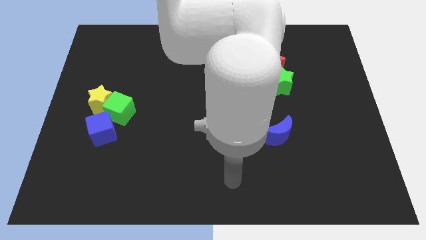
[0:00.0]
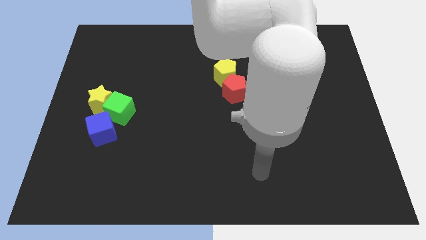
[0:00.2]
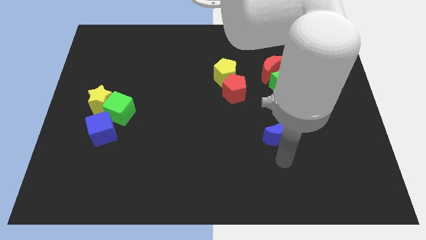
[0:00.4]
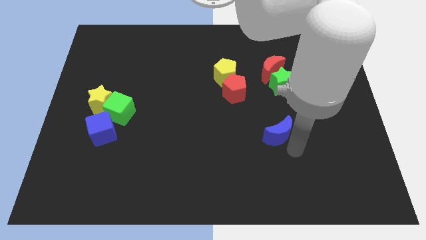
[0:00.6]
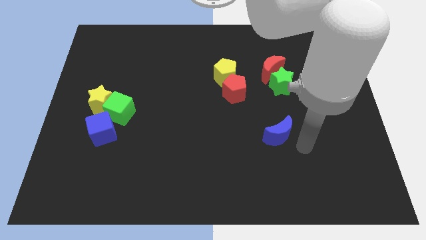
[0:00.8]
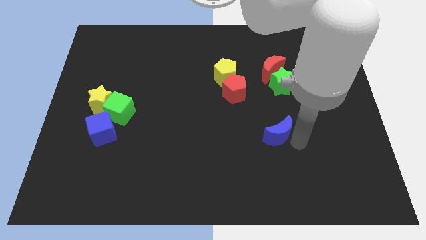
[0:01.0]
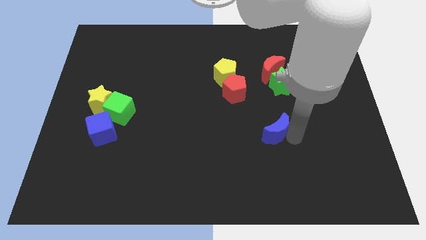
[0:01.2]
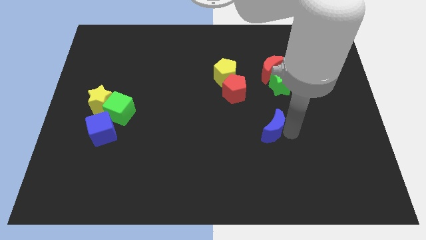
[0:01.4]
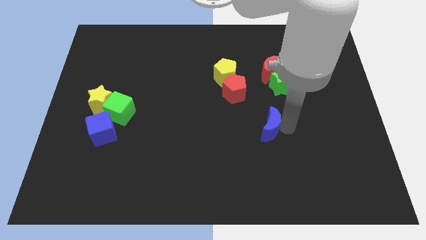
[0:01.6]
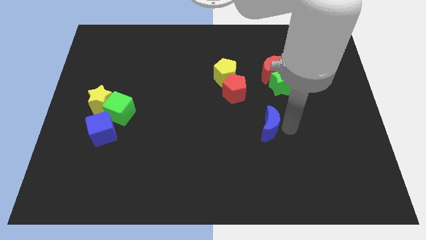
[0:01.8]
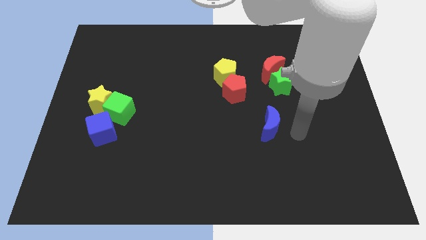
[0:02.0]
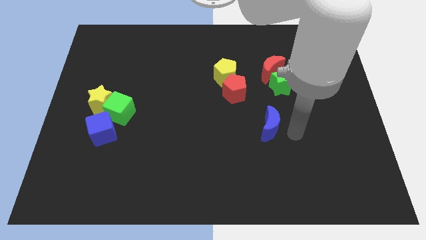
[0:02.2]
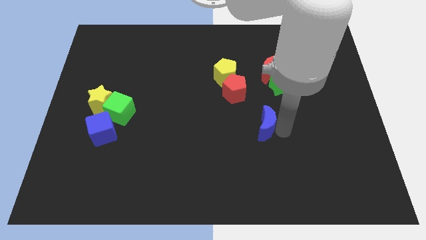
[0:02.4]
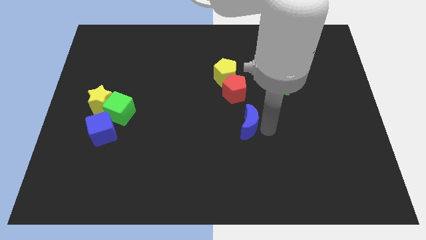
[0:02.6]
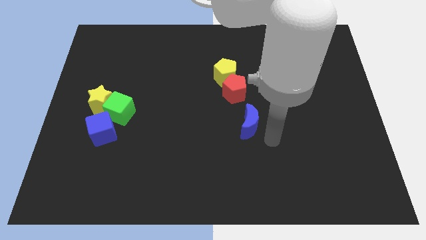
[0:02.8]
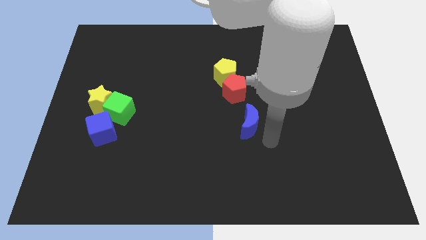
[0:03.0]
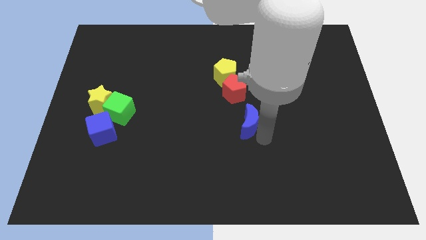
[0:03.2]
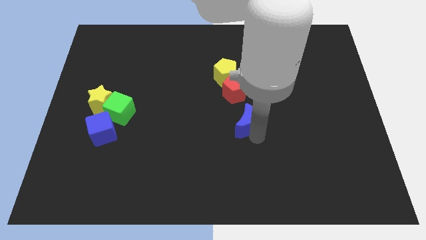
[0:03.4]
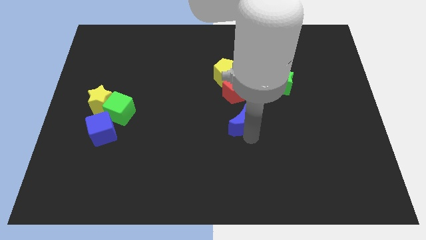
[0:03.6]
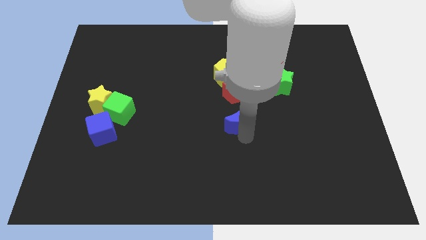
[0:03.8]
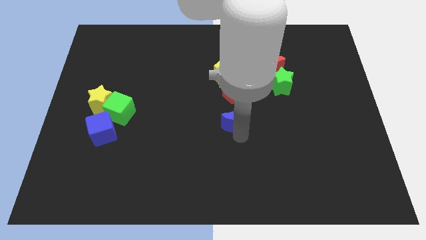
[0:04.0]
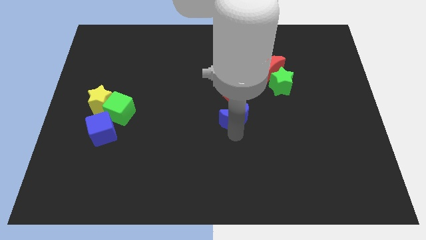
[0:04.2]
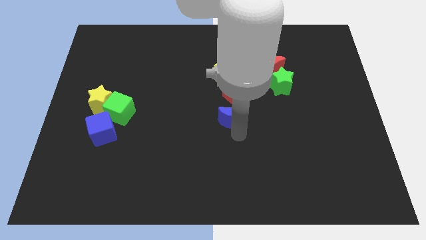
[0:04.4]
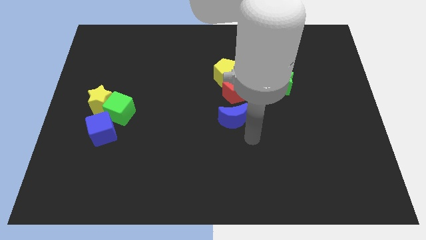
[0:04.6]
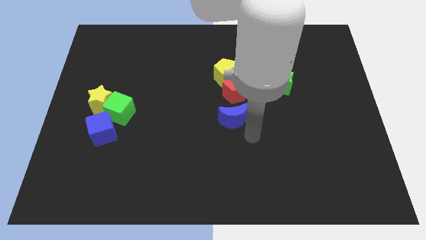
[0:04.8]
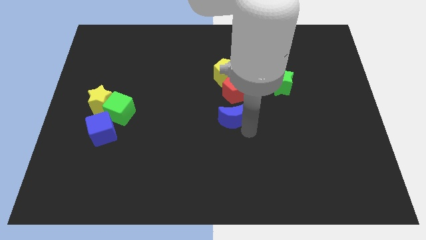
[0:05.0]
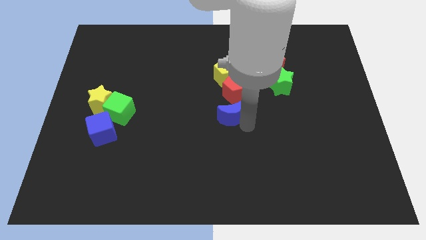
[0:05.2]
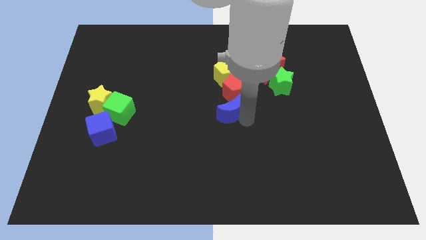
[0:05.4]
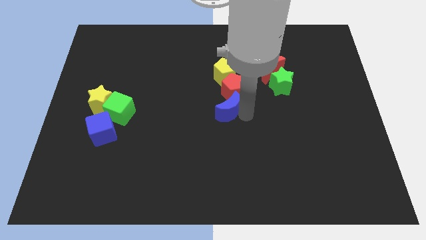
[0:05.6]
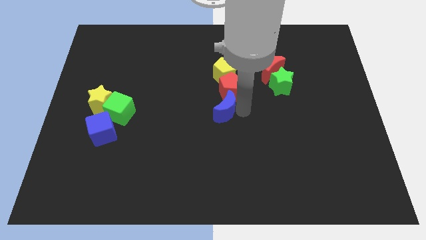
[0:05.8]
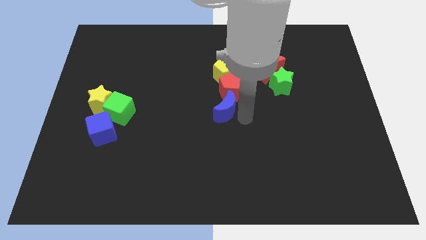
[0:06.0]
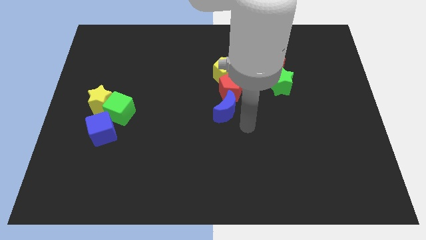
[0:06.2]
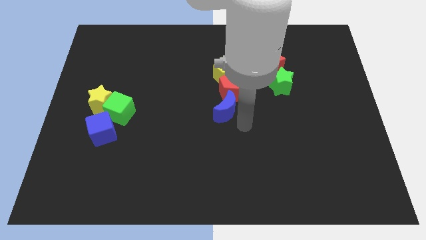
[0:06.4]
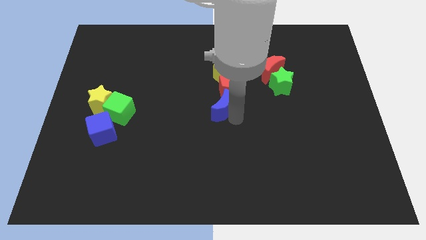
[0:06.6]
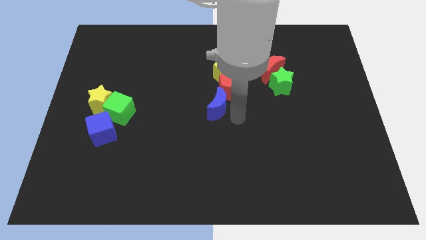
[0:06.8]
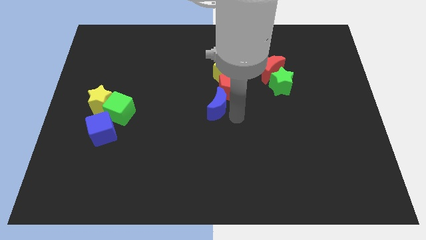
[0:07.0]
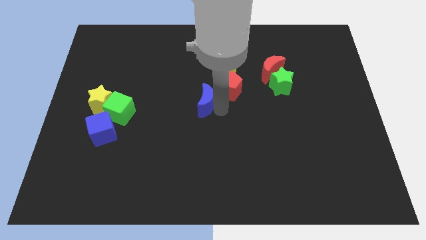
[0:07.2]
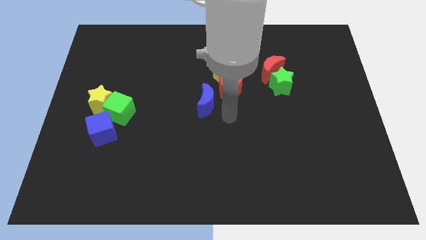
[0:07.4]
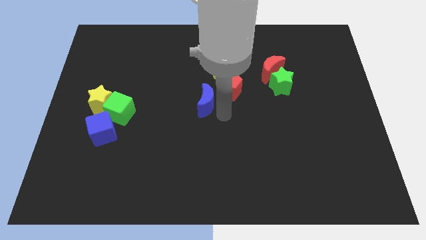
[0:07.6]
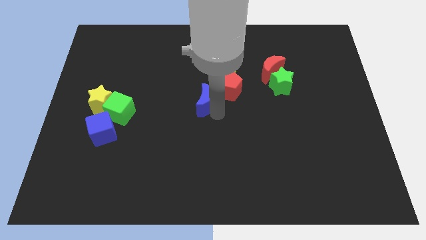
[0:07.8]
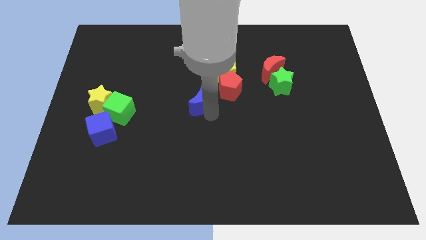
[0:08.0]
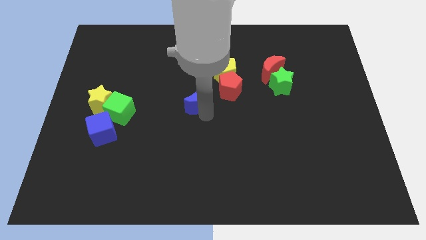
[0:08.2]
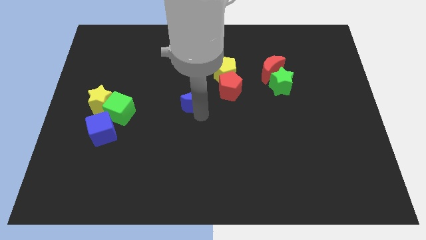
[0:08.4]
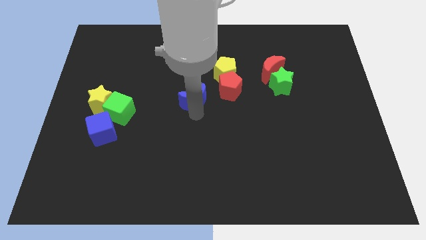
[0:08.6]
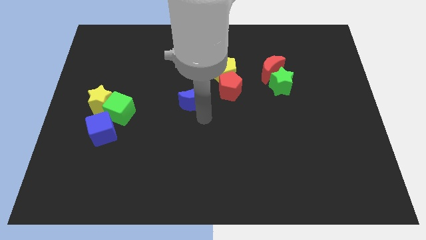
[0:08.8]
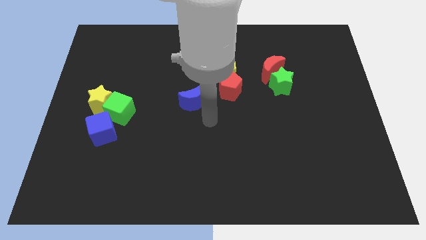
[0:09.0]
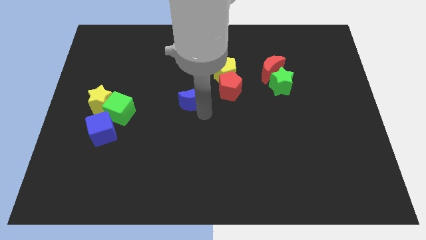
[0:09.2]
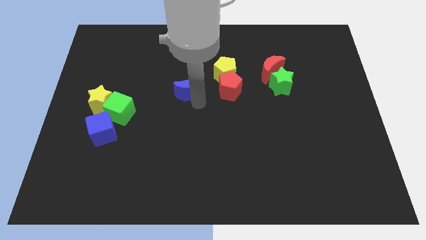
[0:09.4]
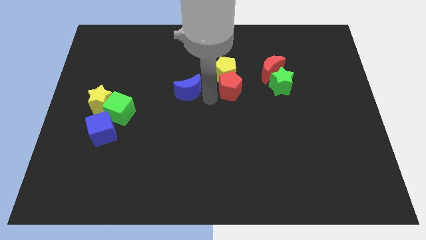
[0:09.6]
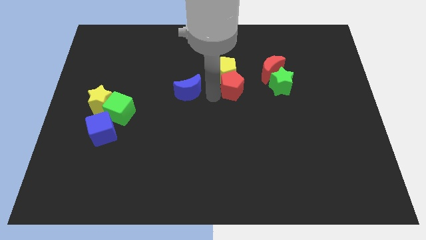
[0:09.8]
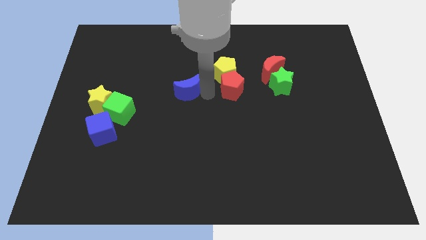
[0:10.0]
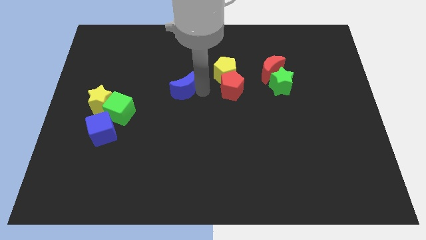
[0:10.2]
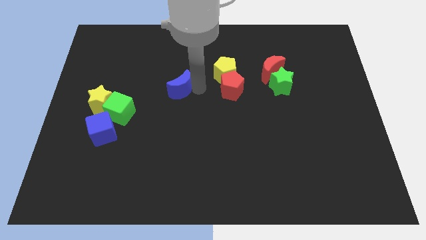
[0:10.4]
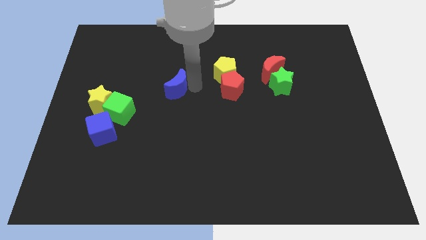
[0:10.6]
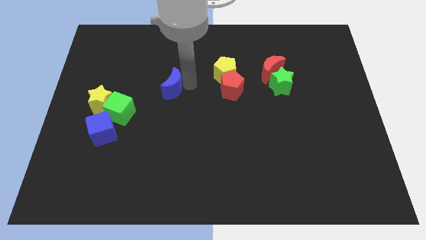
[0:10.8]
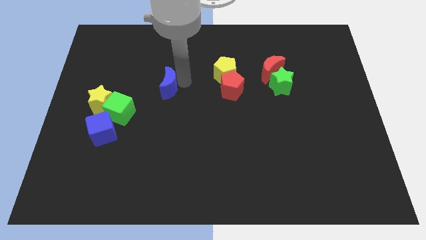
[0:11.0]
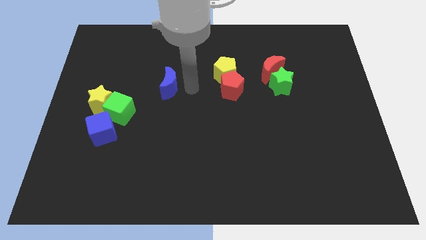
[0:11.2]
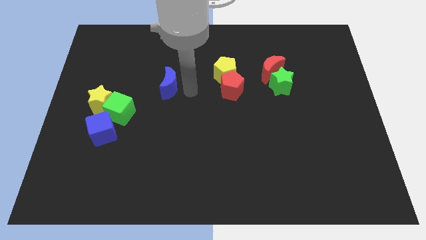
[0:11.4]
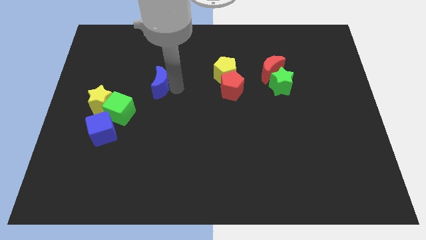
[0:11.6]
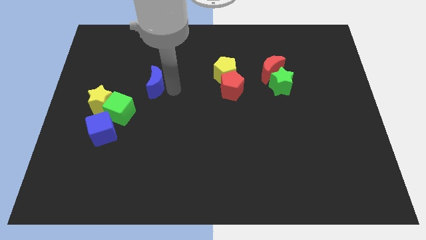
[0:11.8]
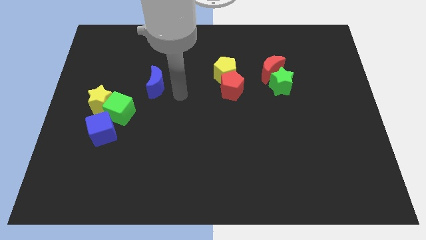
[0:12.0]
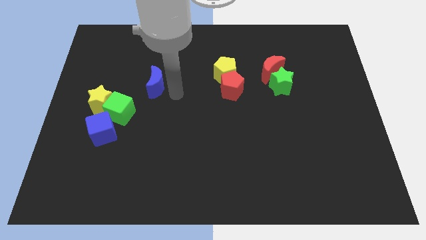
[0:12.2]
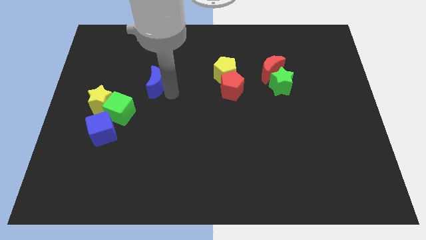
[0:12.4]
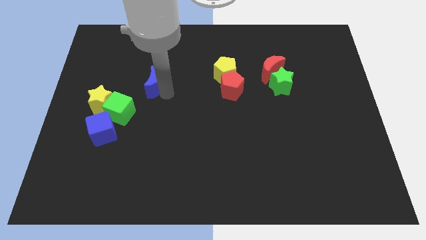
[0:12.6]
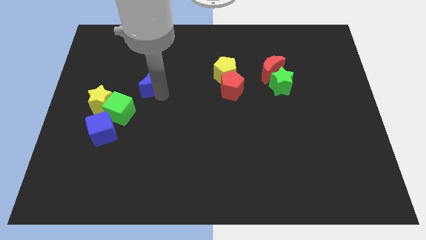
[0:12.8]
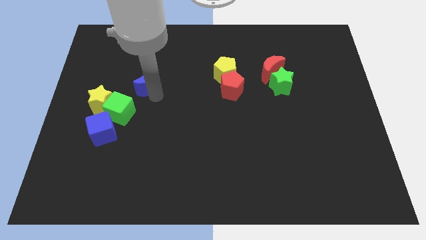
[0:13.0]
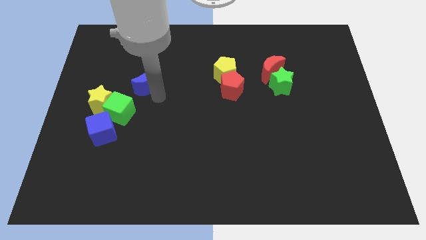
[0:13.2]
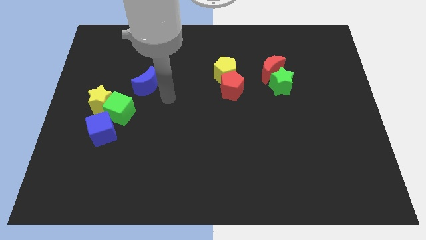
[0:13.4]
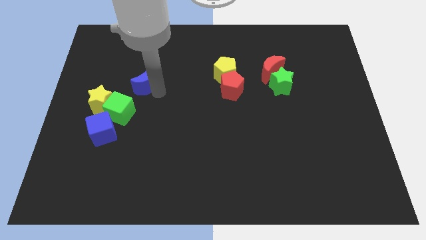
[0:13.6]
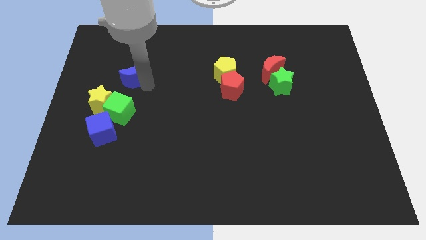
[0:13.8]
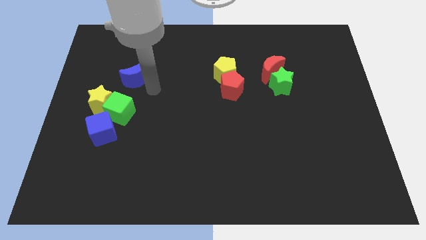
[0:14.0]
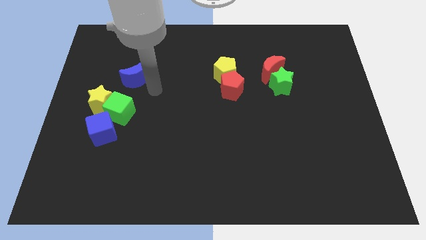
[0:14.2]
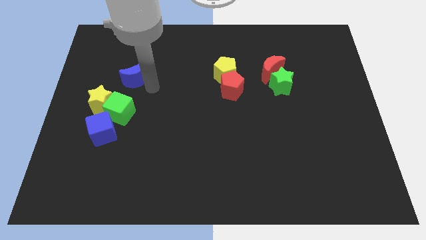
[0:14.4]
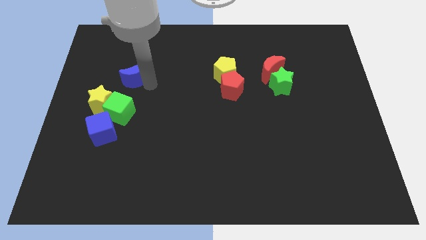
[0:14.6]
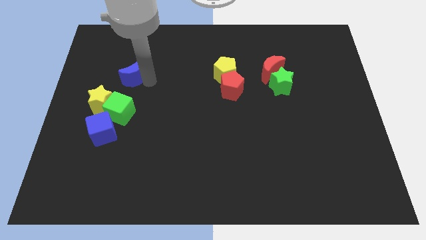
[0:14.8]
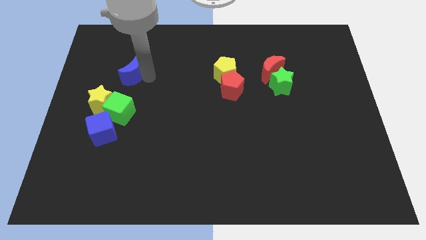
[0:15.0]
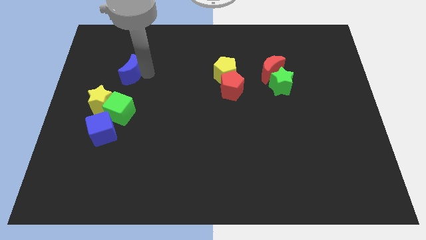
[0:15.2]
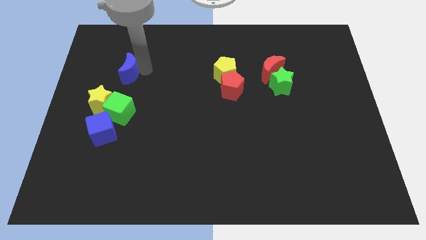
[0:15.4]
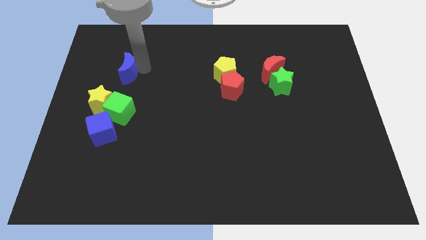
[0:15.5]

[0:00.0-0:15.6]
slide the blue moon above the yellow star
